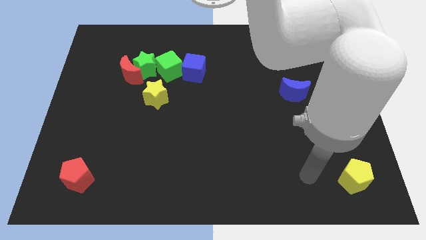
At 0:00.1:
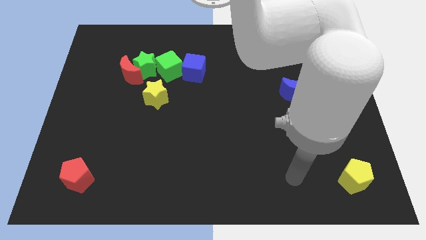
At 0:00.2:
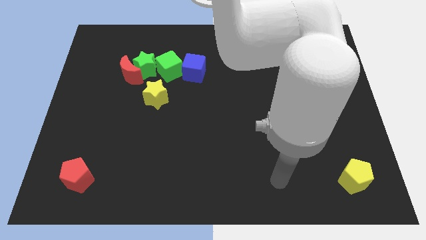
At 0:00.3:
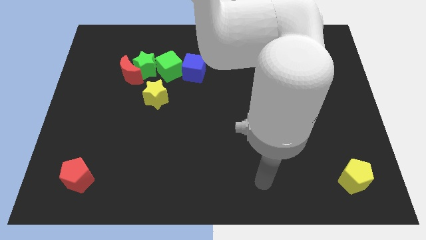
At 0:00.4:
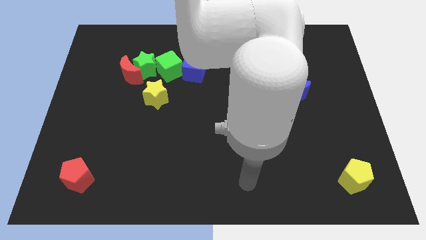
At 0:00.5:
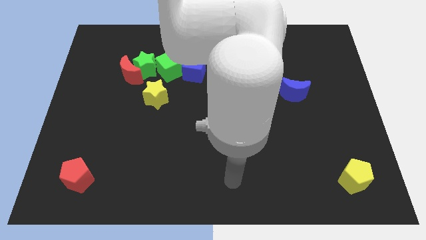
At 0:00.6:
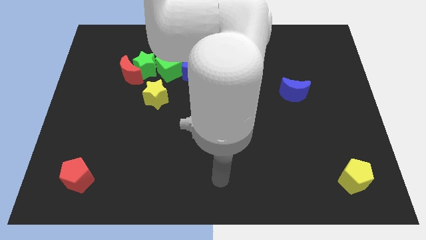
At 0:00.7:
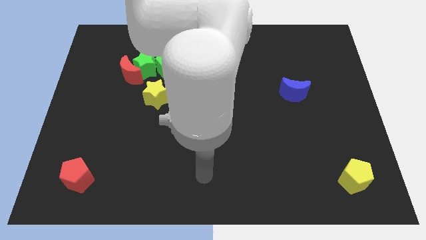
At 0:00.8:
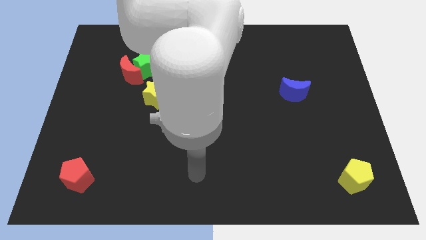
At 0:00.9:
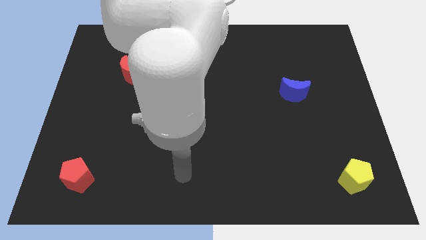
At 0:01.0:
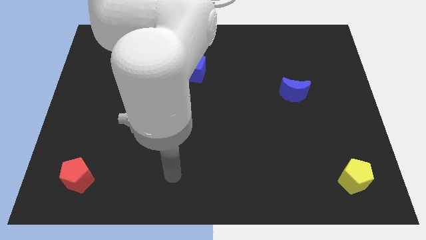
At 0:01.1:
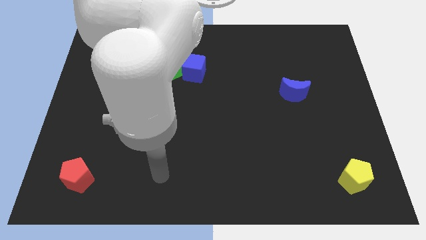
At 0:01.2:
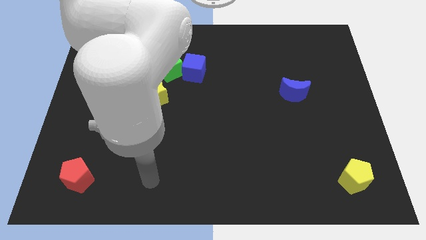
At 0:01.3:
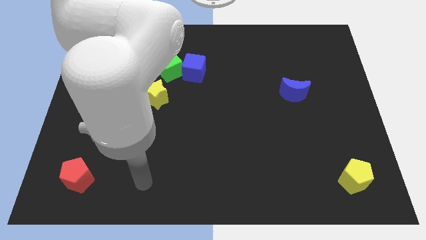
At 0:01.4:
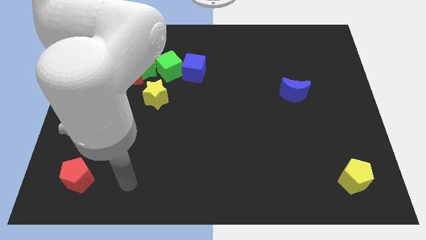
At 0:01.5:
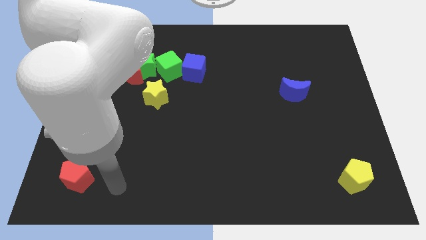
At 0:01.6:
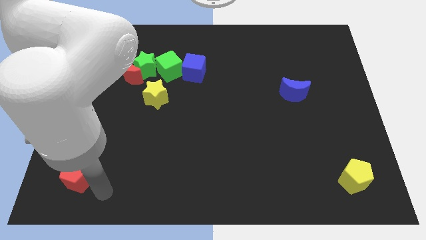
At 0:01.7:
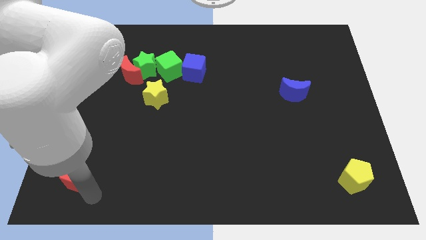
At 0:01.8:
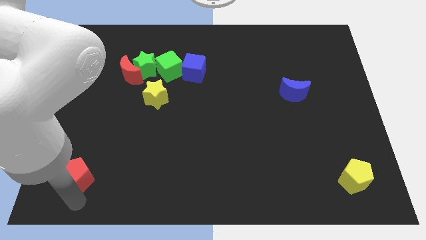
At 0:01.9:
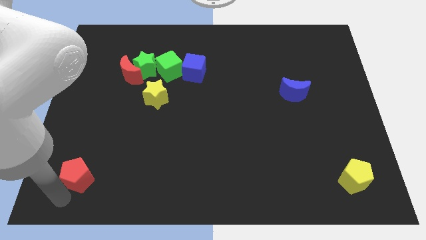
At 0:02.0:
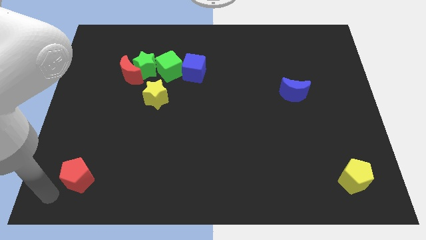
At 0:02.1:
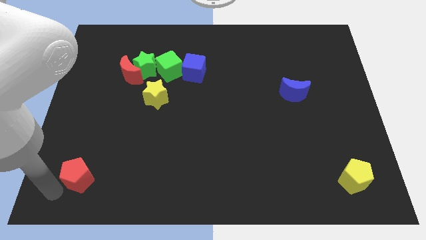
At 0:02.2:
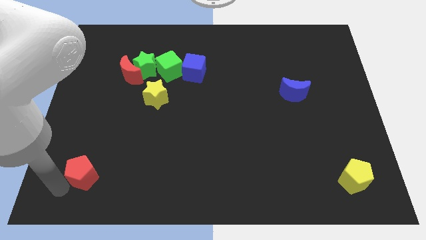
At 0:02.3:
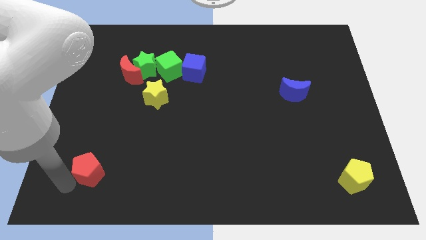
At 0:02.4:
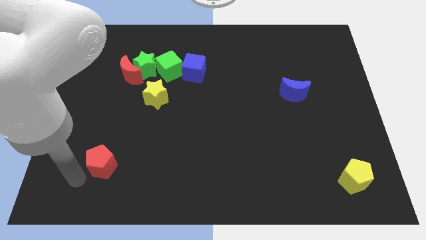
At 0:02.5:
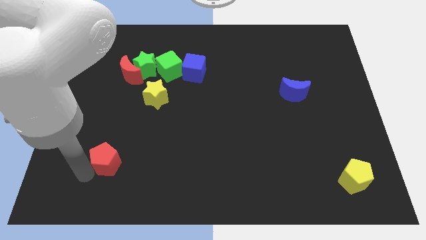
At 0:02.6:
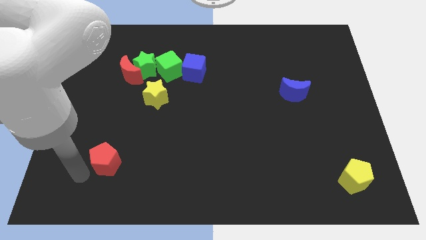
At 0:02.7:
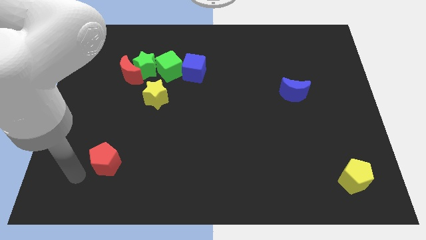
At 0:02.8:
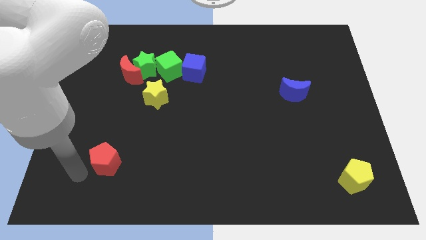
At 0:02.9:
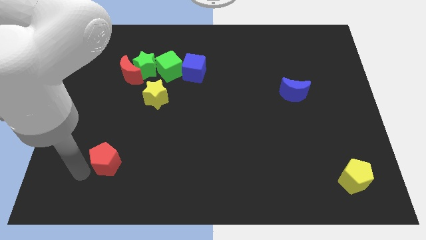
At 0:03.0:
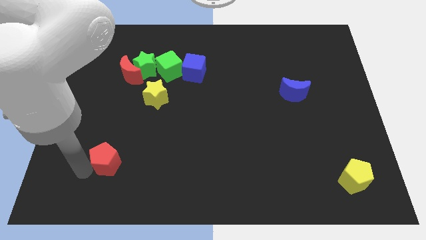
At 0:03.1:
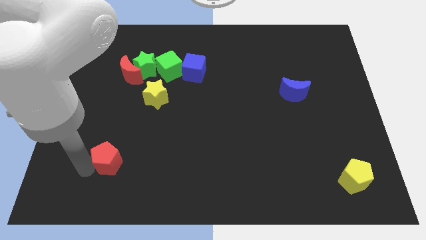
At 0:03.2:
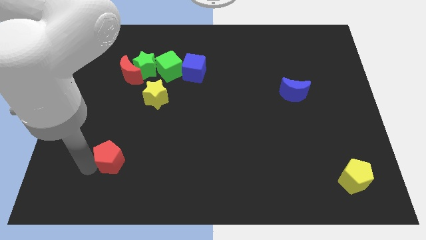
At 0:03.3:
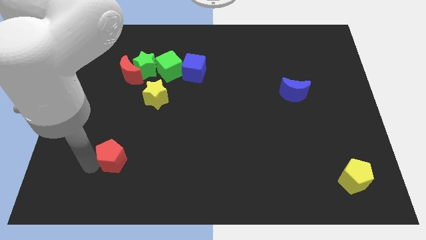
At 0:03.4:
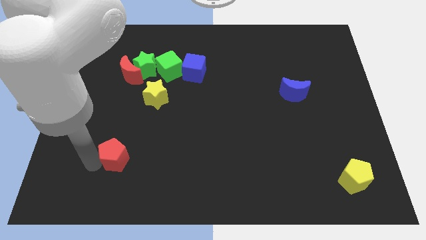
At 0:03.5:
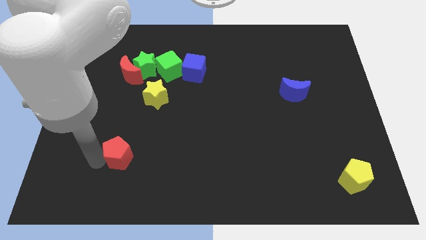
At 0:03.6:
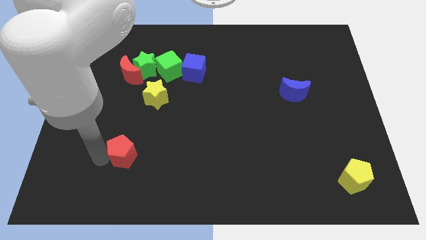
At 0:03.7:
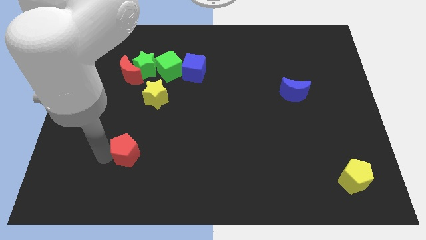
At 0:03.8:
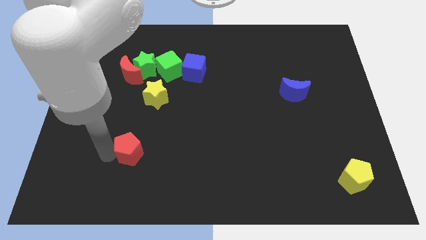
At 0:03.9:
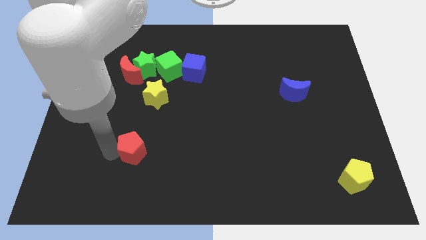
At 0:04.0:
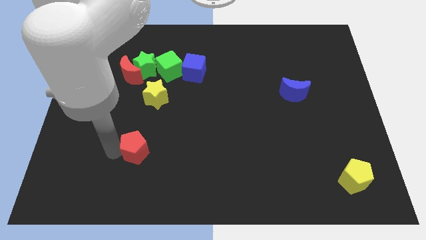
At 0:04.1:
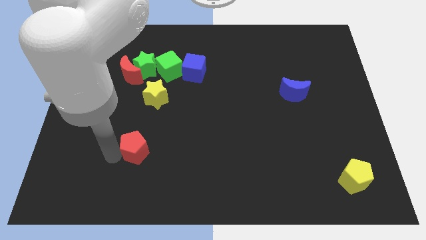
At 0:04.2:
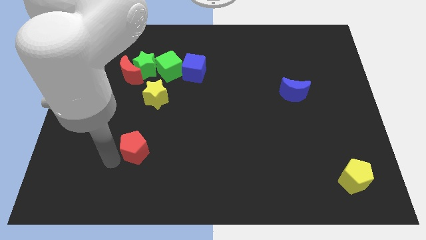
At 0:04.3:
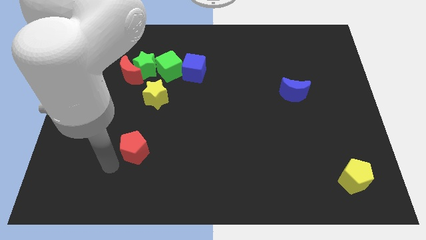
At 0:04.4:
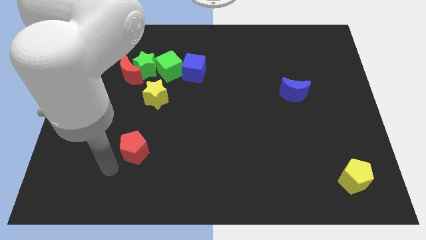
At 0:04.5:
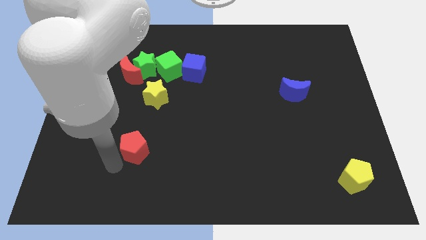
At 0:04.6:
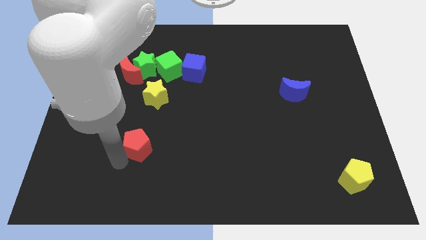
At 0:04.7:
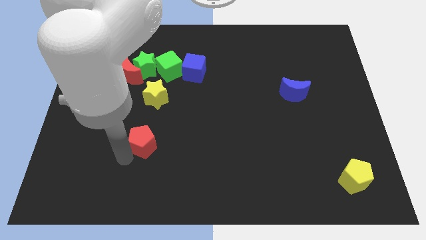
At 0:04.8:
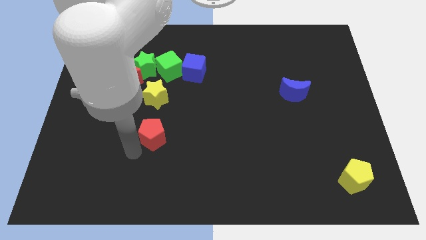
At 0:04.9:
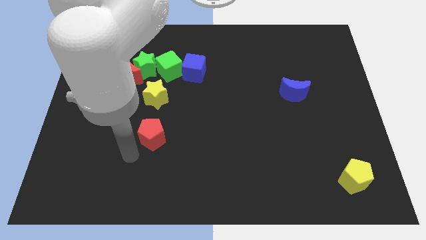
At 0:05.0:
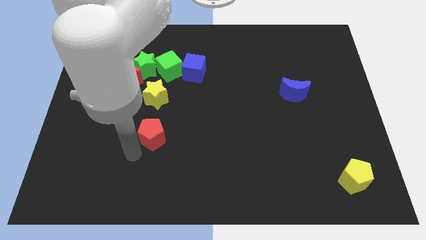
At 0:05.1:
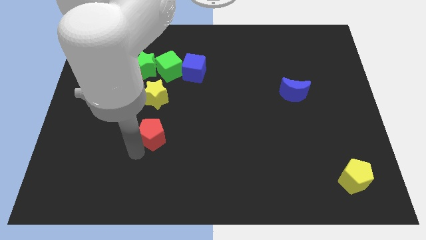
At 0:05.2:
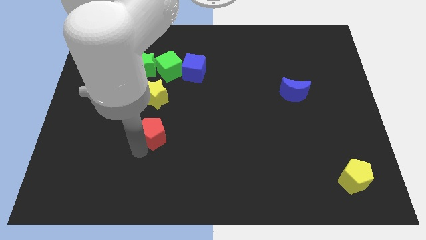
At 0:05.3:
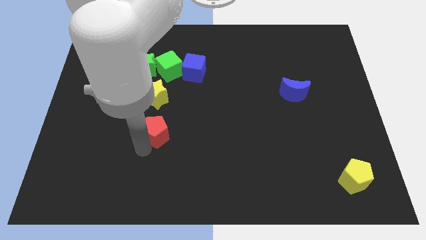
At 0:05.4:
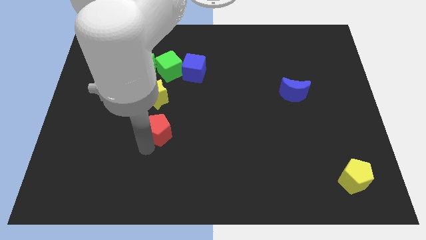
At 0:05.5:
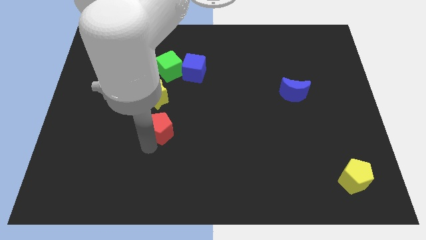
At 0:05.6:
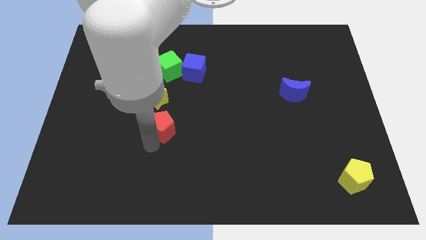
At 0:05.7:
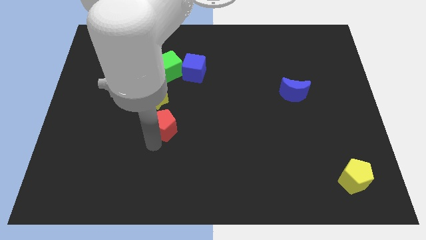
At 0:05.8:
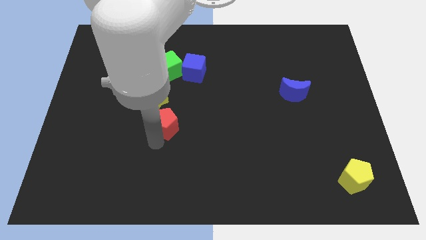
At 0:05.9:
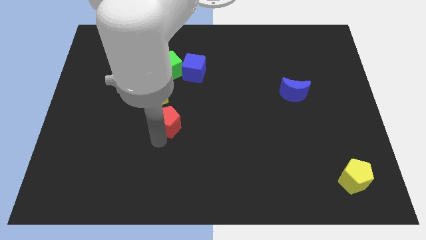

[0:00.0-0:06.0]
slide the red pentagon to the center
